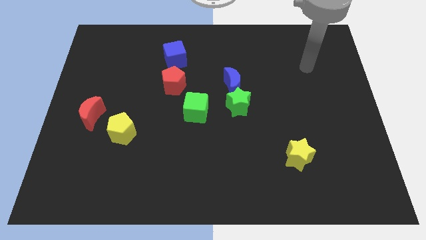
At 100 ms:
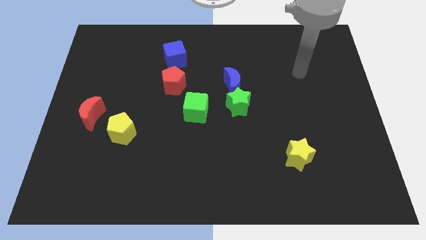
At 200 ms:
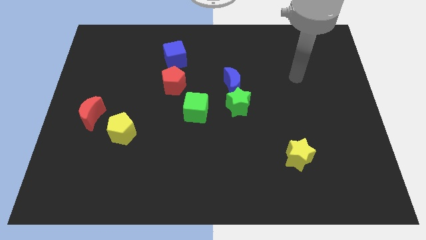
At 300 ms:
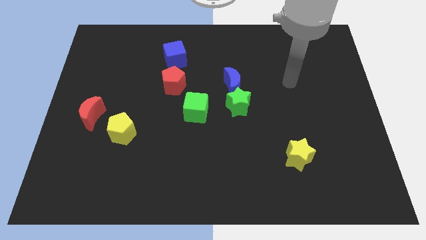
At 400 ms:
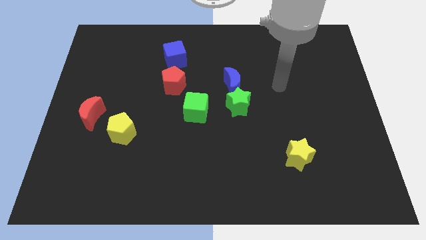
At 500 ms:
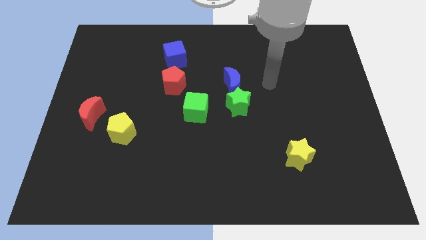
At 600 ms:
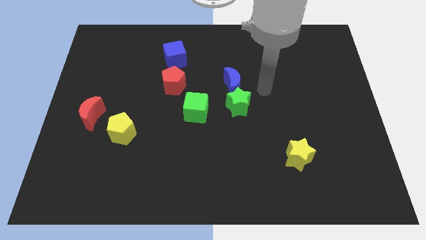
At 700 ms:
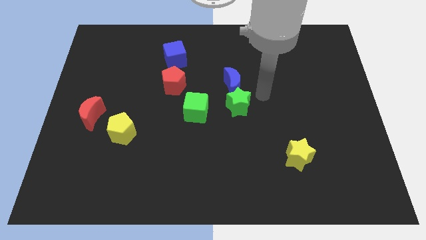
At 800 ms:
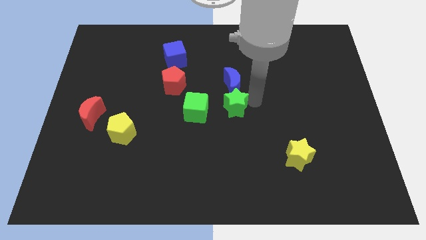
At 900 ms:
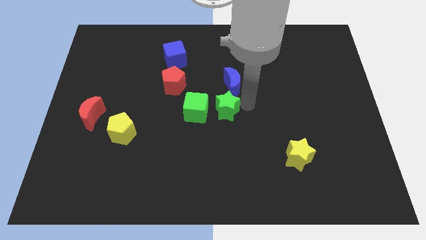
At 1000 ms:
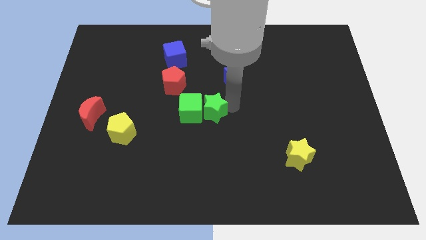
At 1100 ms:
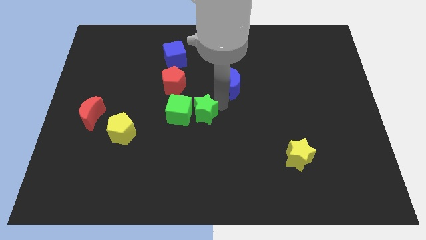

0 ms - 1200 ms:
separate the blue moon from the green star

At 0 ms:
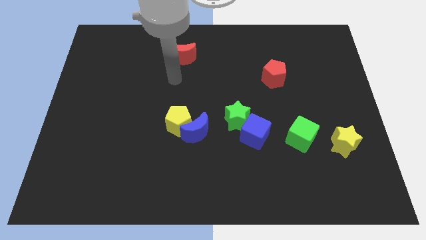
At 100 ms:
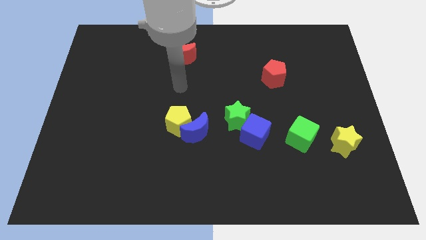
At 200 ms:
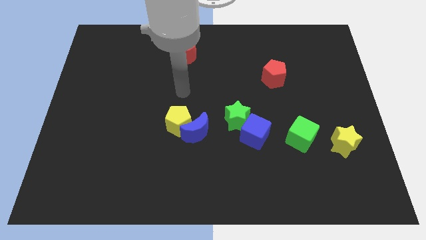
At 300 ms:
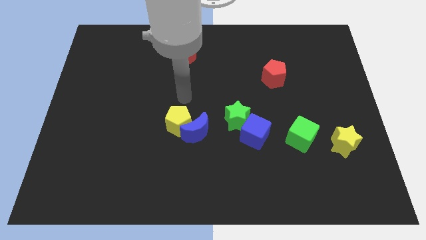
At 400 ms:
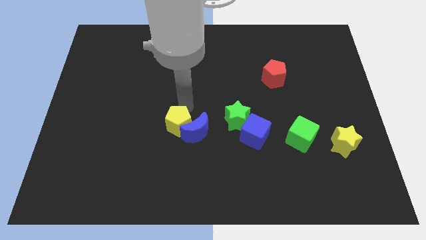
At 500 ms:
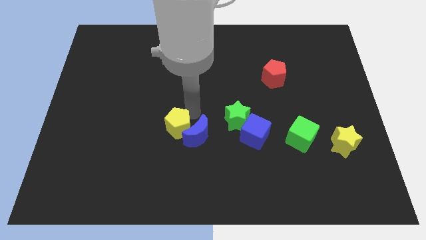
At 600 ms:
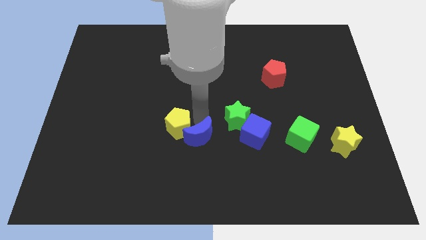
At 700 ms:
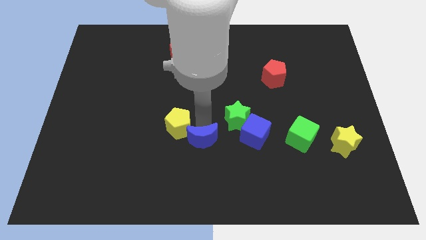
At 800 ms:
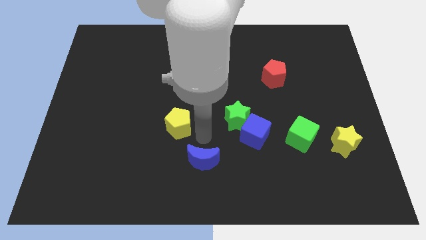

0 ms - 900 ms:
pull the yellow pentagon apart from the blue moon

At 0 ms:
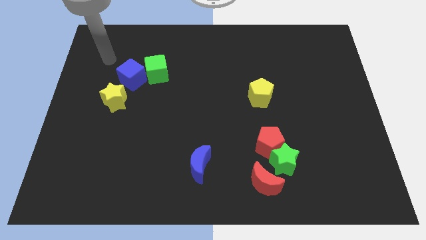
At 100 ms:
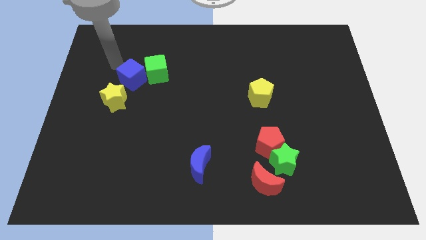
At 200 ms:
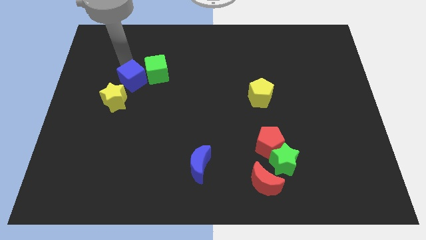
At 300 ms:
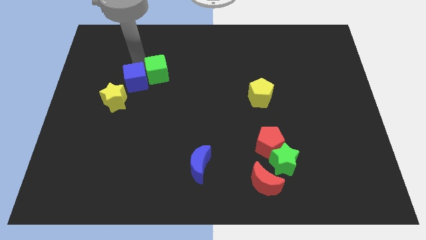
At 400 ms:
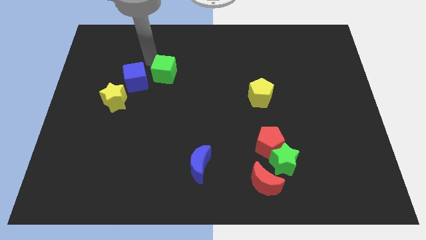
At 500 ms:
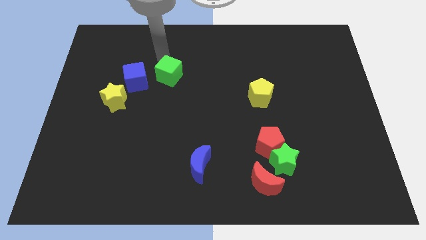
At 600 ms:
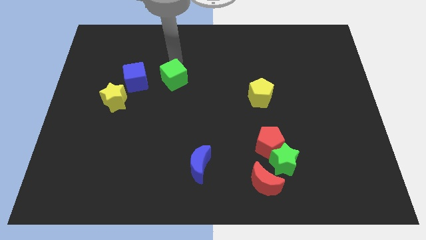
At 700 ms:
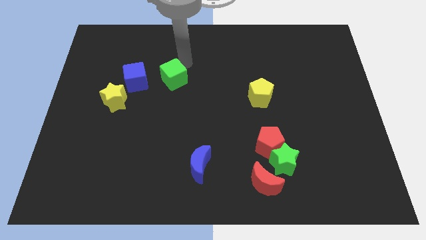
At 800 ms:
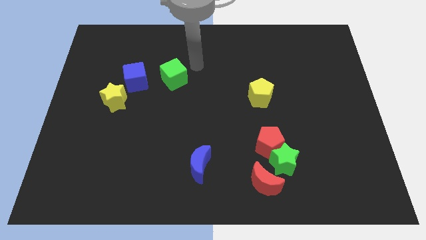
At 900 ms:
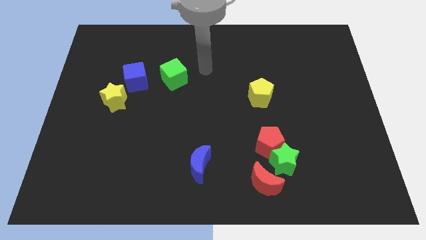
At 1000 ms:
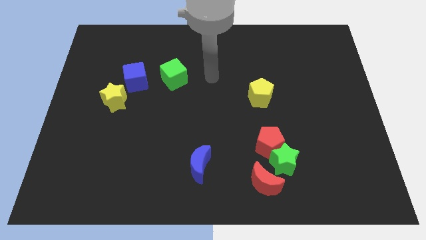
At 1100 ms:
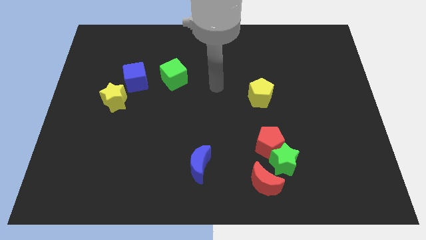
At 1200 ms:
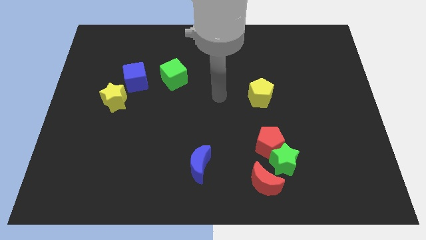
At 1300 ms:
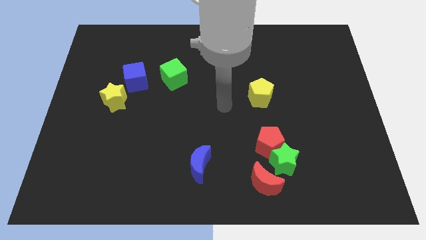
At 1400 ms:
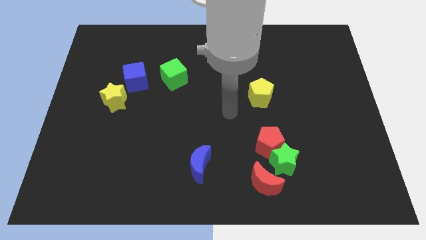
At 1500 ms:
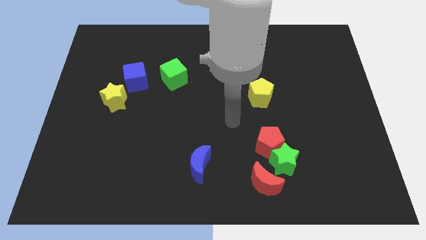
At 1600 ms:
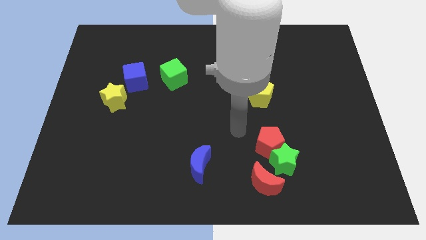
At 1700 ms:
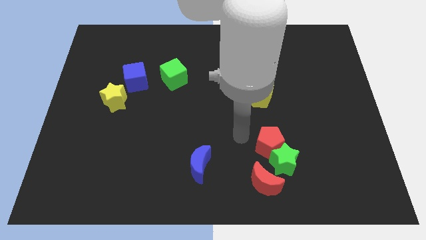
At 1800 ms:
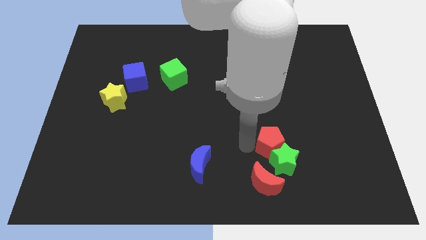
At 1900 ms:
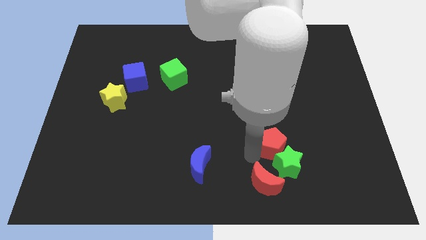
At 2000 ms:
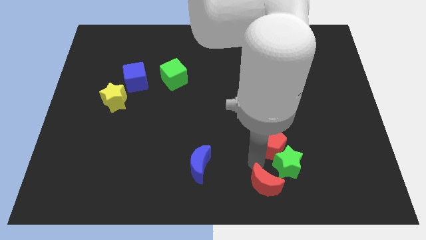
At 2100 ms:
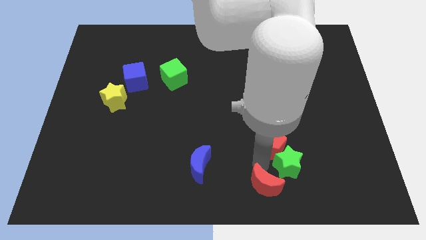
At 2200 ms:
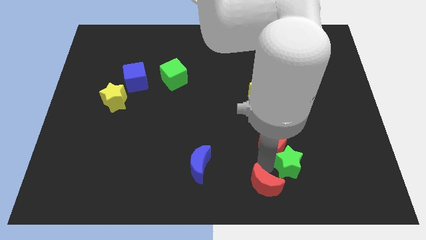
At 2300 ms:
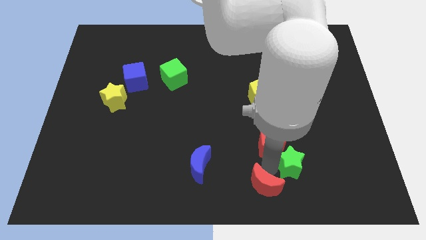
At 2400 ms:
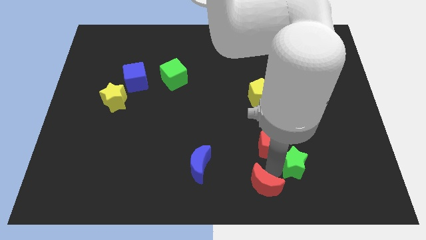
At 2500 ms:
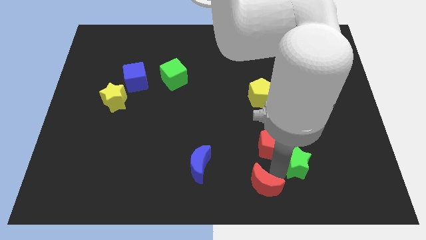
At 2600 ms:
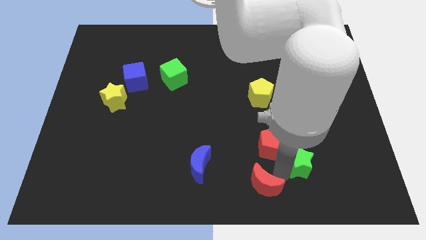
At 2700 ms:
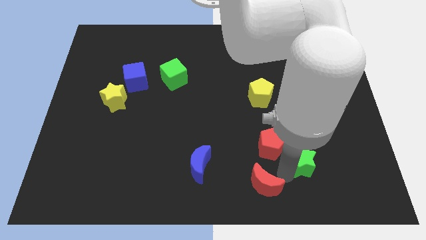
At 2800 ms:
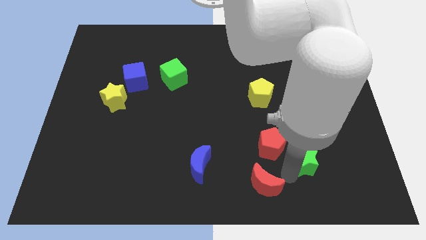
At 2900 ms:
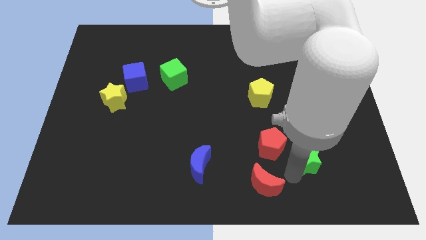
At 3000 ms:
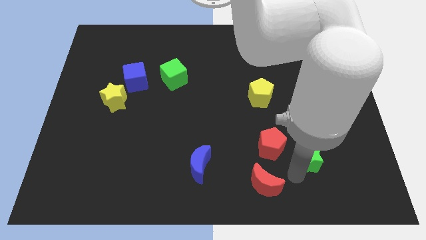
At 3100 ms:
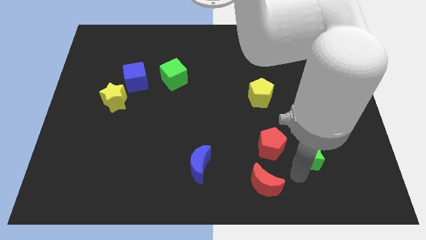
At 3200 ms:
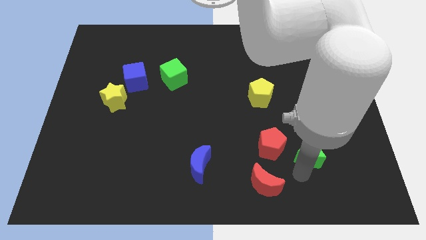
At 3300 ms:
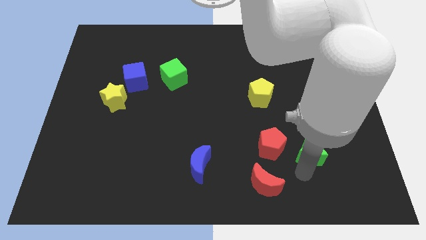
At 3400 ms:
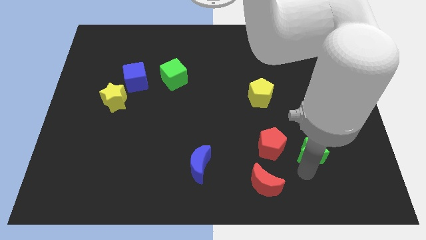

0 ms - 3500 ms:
pull the green star apart from the red pentagon and red moon

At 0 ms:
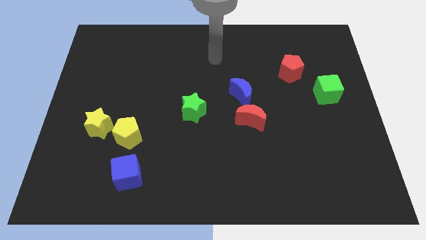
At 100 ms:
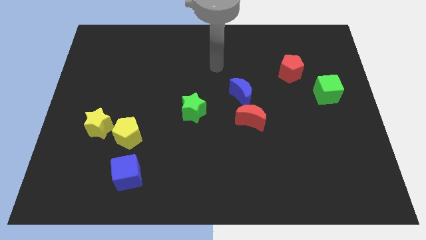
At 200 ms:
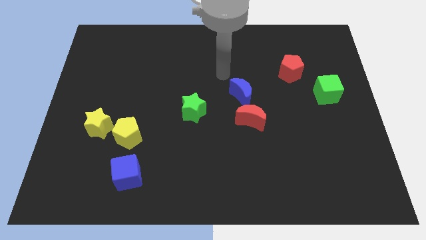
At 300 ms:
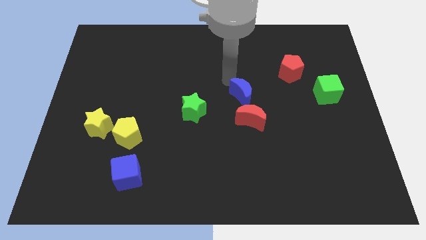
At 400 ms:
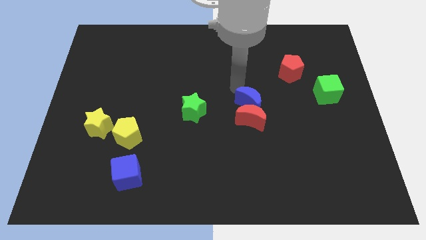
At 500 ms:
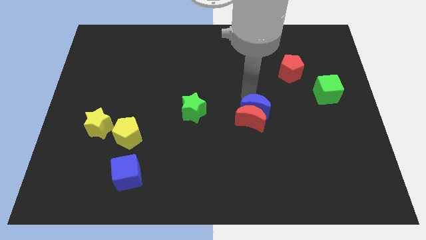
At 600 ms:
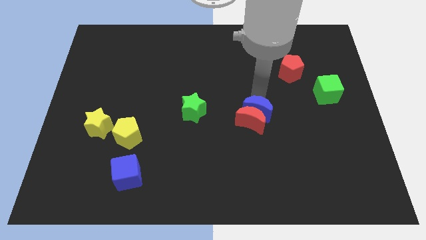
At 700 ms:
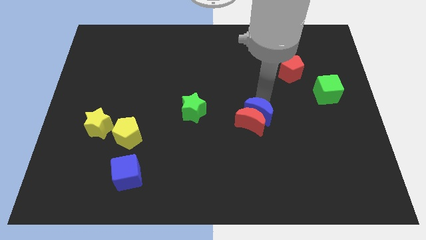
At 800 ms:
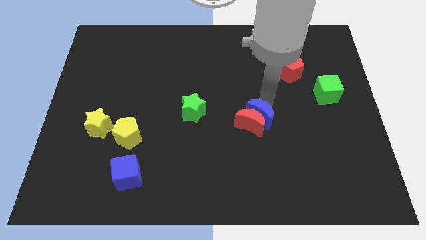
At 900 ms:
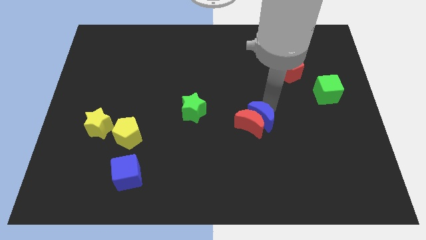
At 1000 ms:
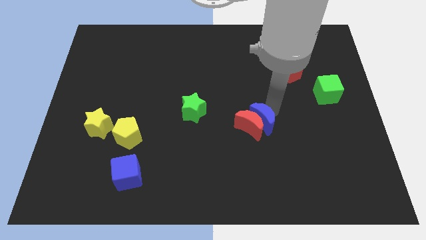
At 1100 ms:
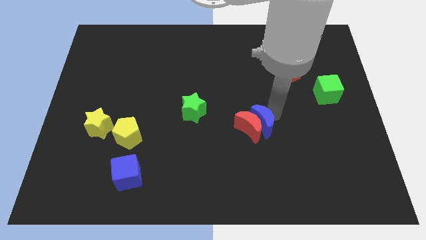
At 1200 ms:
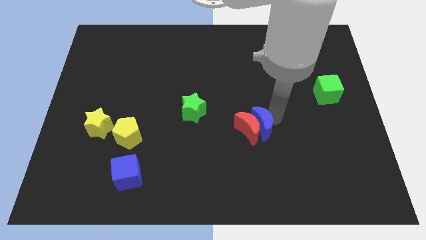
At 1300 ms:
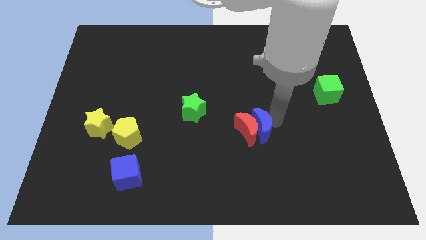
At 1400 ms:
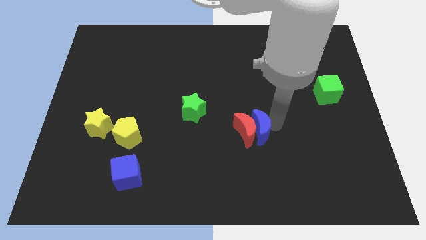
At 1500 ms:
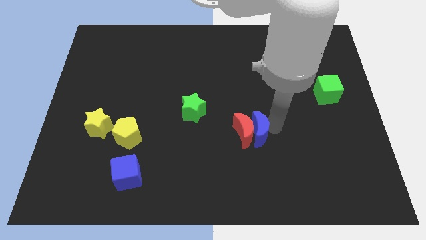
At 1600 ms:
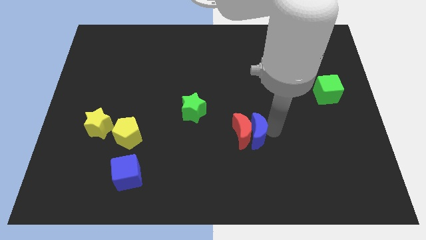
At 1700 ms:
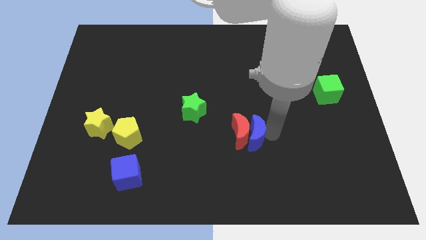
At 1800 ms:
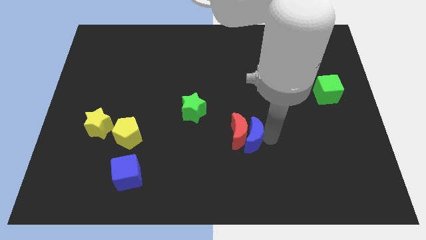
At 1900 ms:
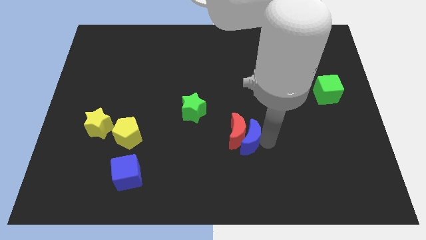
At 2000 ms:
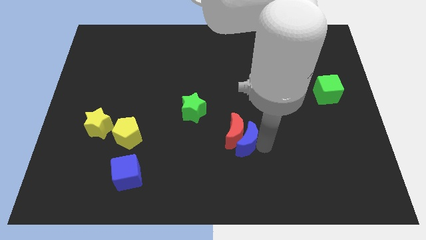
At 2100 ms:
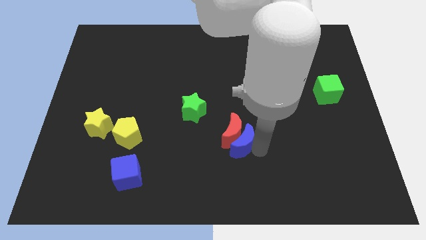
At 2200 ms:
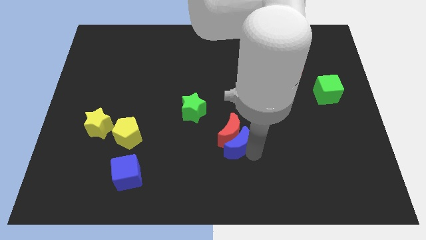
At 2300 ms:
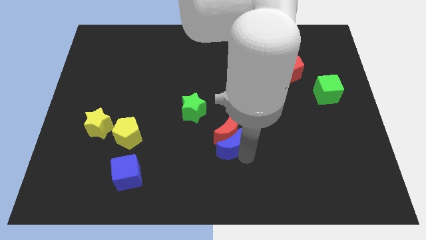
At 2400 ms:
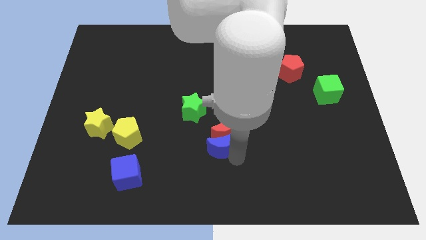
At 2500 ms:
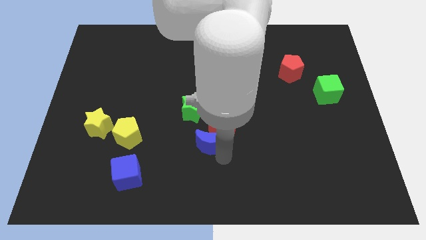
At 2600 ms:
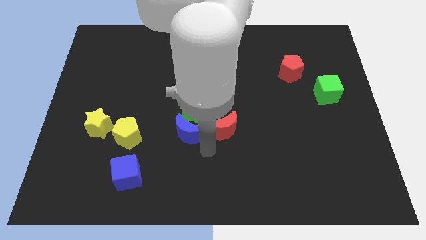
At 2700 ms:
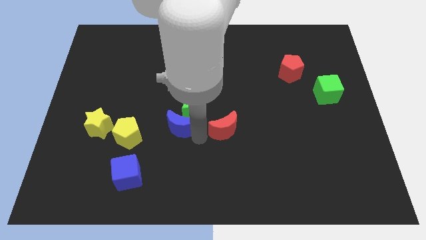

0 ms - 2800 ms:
move the red moon away from the blue moon

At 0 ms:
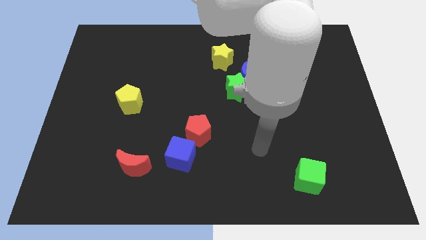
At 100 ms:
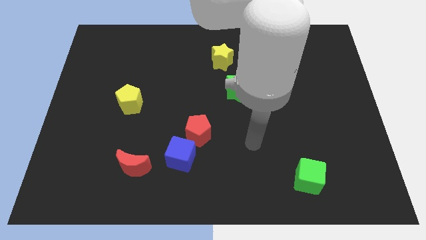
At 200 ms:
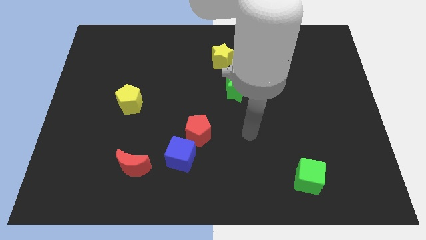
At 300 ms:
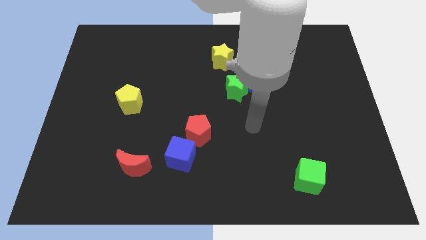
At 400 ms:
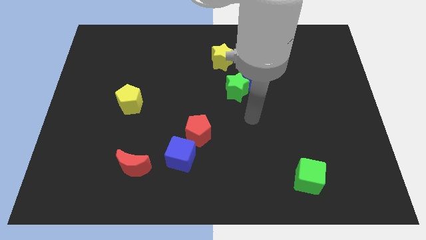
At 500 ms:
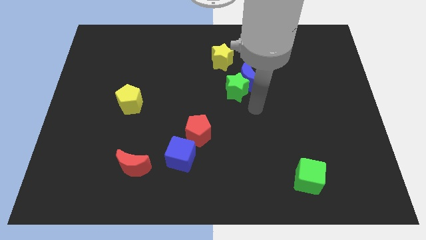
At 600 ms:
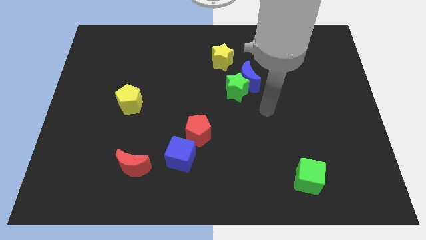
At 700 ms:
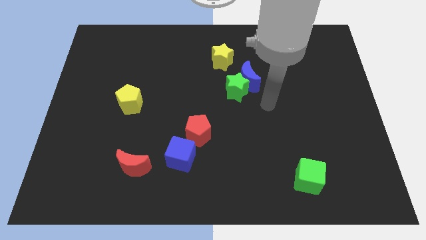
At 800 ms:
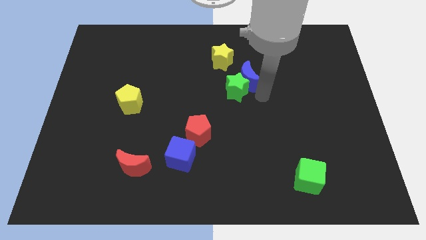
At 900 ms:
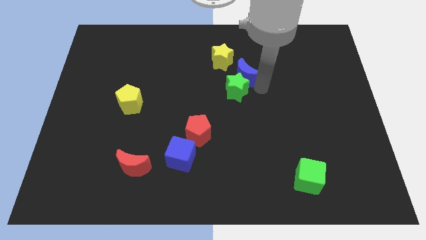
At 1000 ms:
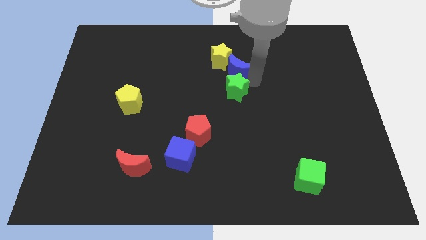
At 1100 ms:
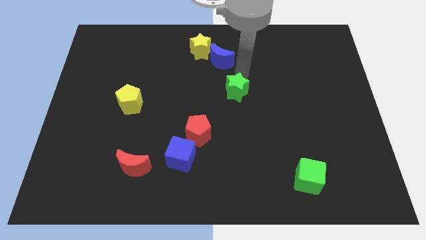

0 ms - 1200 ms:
pull the green star apart from the blue moon
